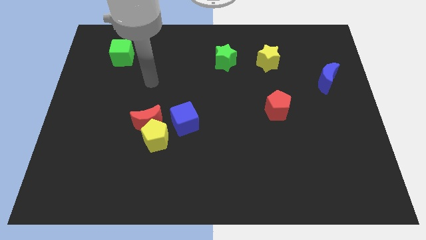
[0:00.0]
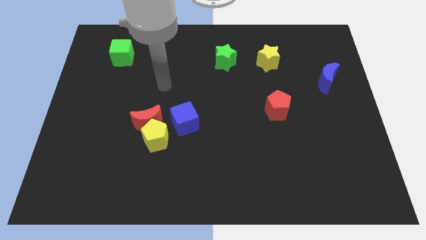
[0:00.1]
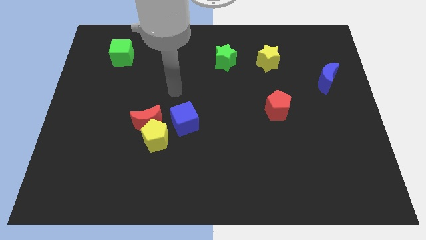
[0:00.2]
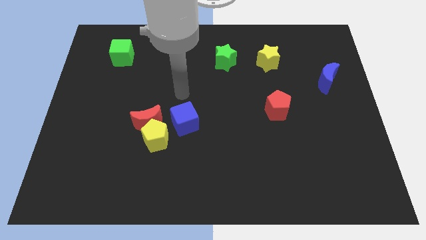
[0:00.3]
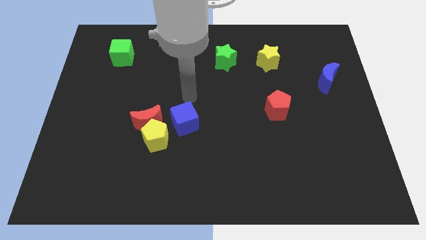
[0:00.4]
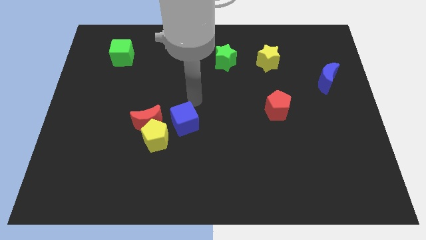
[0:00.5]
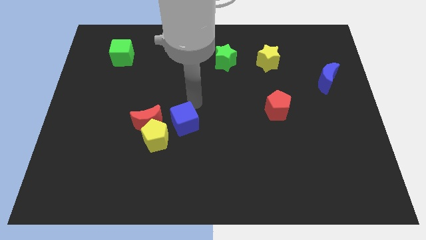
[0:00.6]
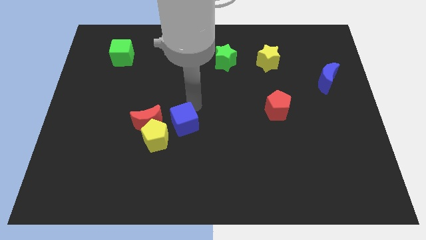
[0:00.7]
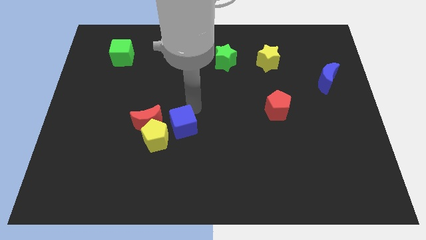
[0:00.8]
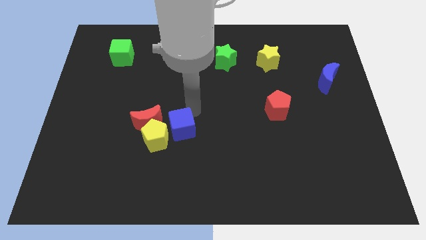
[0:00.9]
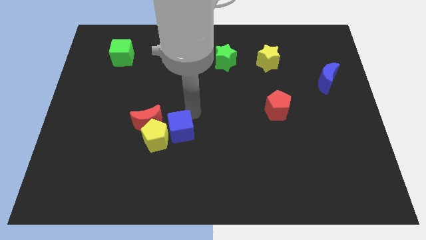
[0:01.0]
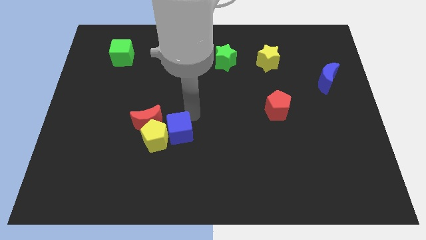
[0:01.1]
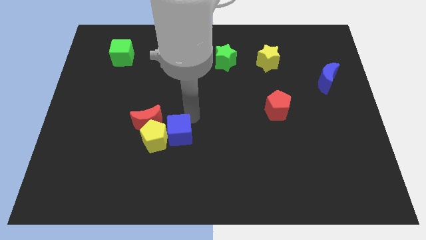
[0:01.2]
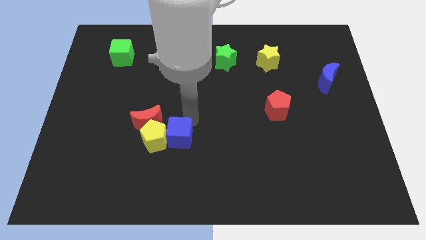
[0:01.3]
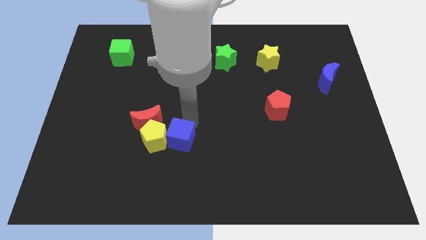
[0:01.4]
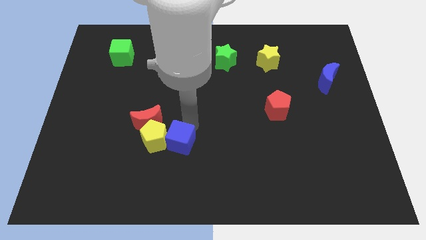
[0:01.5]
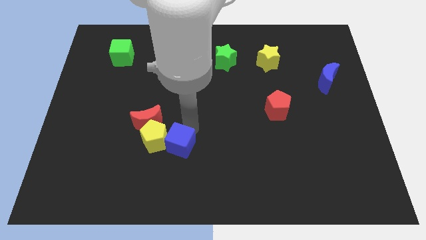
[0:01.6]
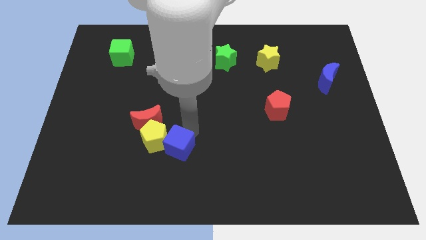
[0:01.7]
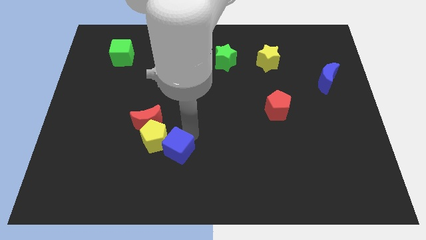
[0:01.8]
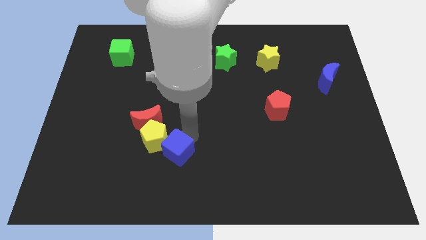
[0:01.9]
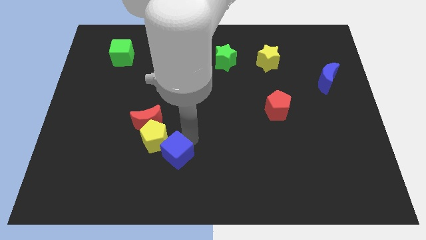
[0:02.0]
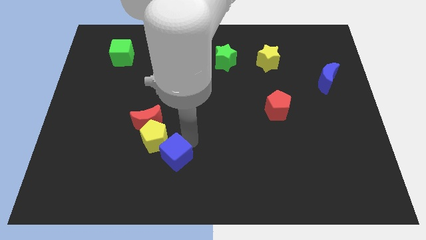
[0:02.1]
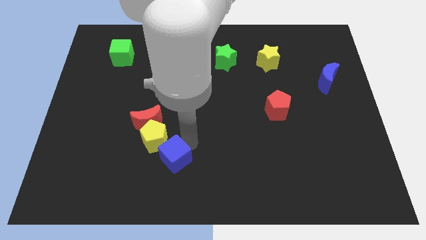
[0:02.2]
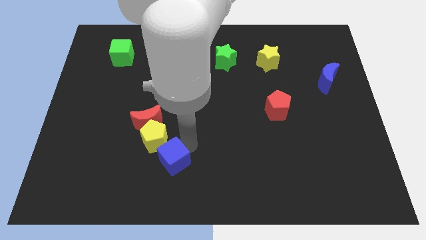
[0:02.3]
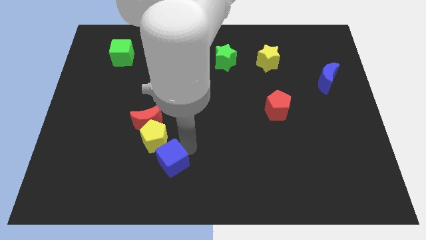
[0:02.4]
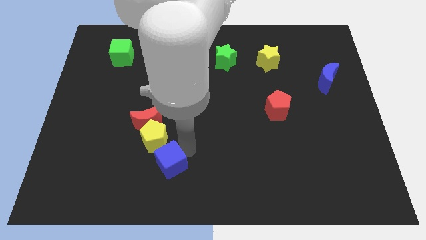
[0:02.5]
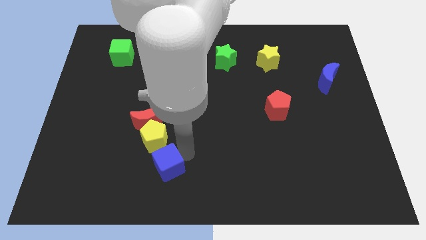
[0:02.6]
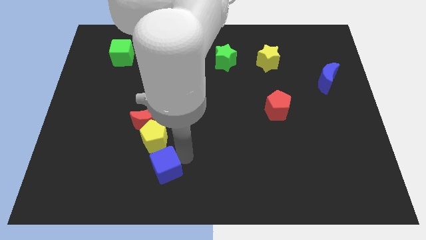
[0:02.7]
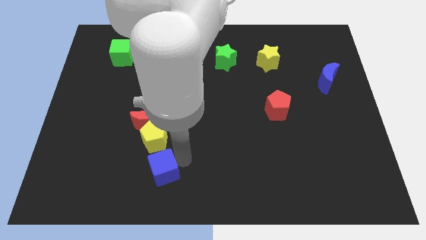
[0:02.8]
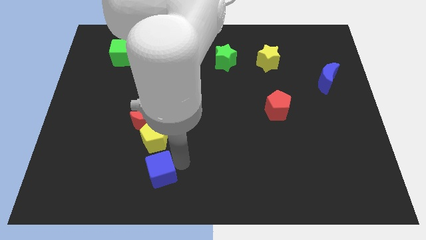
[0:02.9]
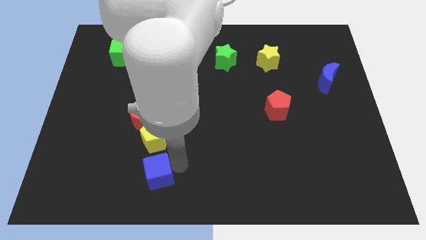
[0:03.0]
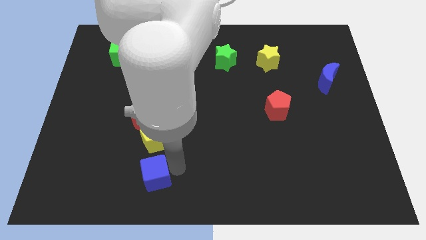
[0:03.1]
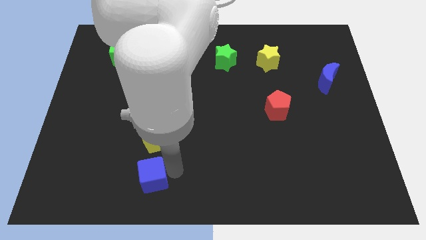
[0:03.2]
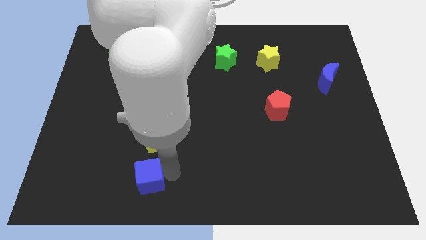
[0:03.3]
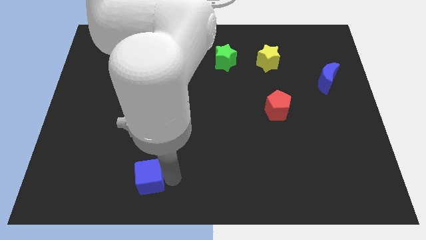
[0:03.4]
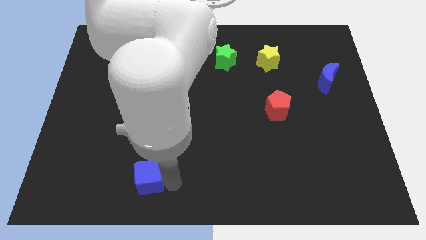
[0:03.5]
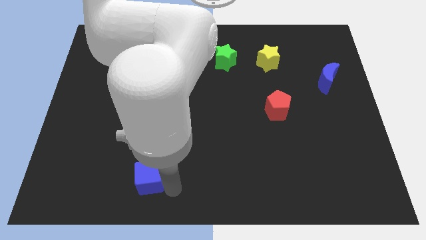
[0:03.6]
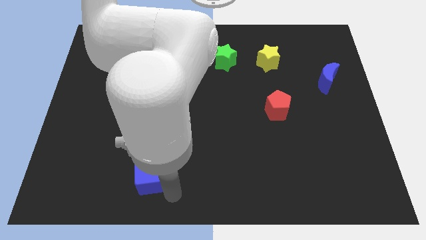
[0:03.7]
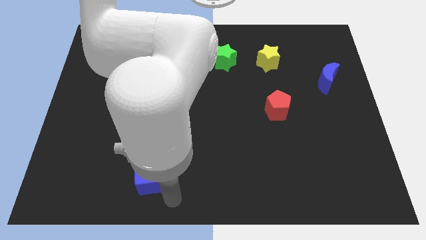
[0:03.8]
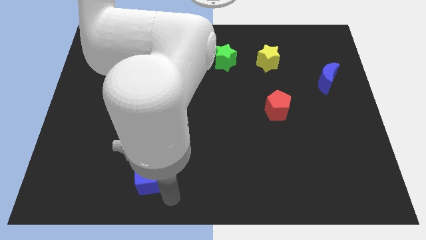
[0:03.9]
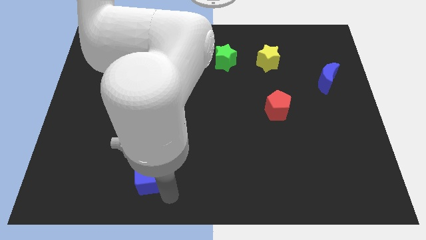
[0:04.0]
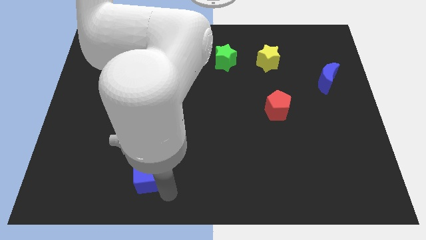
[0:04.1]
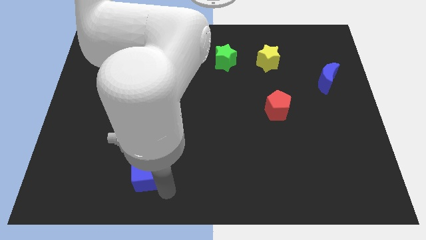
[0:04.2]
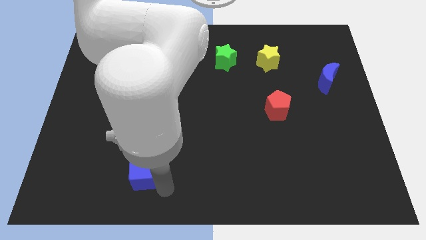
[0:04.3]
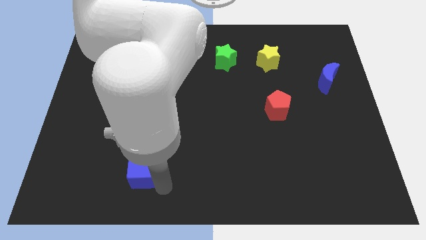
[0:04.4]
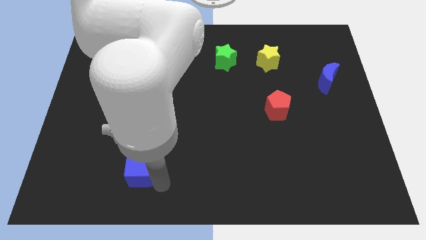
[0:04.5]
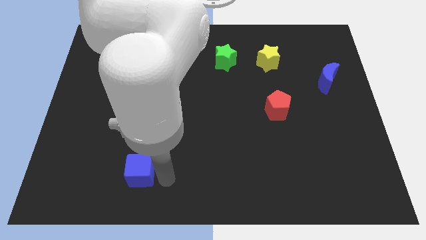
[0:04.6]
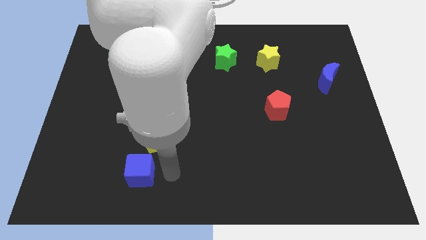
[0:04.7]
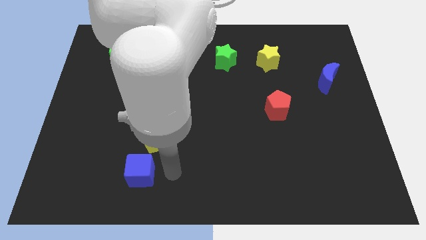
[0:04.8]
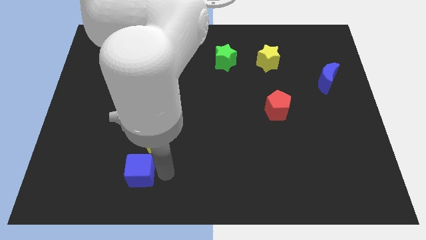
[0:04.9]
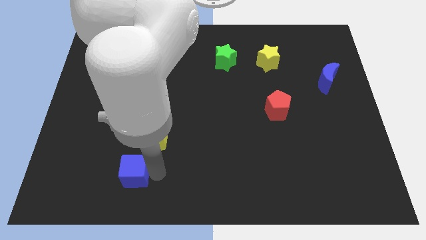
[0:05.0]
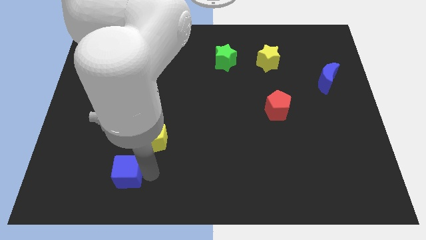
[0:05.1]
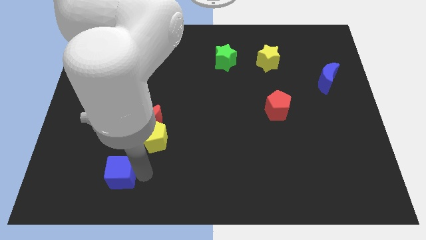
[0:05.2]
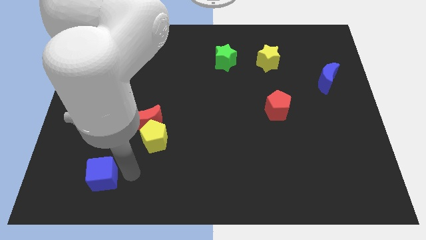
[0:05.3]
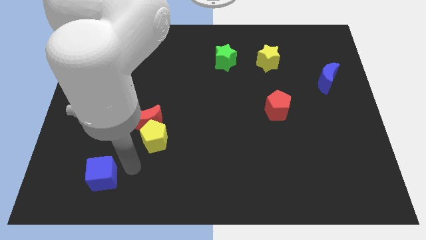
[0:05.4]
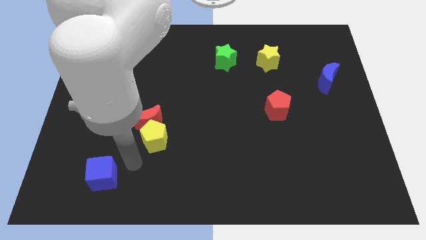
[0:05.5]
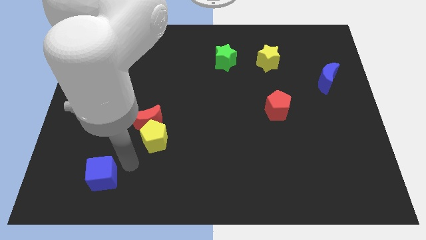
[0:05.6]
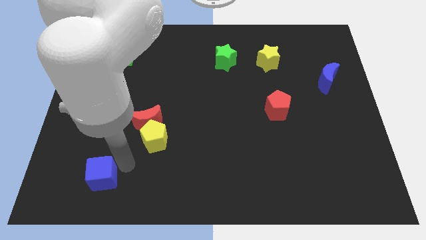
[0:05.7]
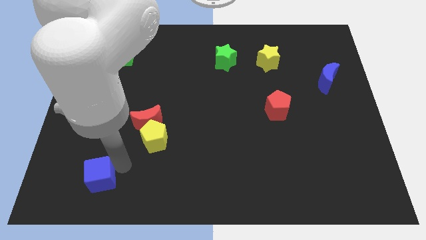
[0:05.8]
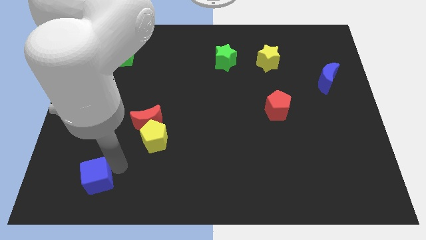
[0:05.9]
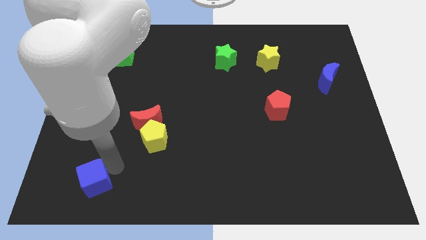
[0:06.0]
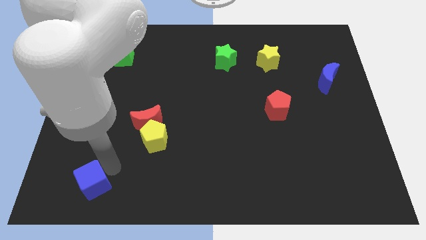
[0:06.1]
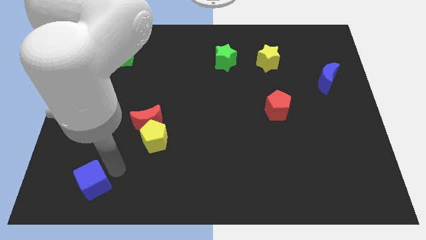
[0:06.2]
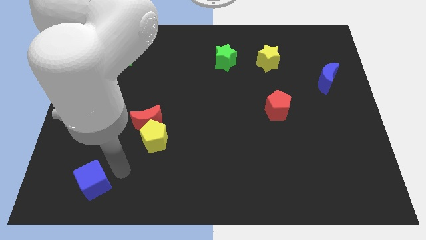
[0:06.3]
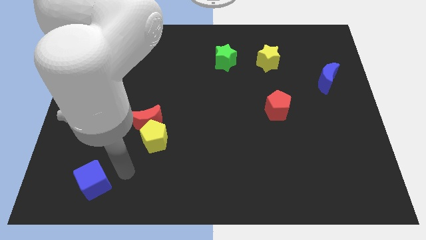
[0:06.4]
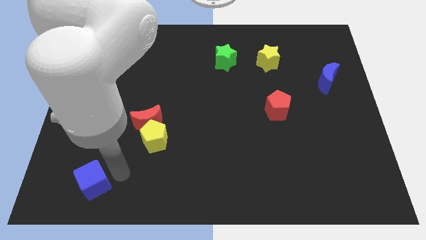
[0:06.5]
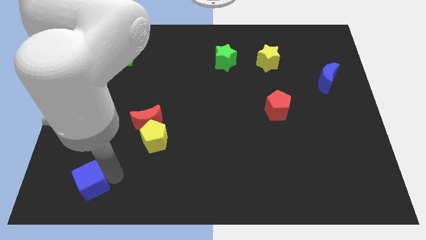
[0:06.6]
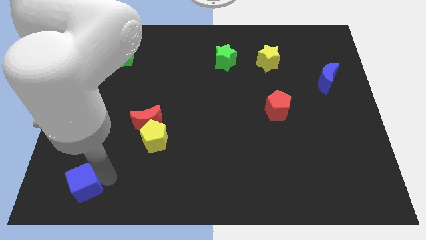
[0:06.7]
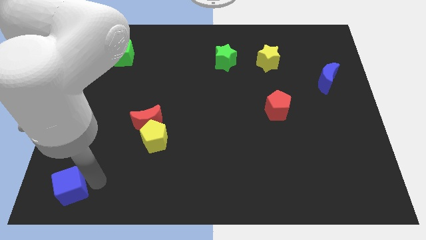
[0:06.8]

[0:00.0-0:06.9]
push the blue cube to the bottom left corner

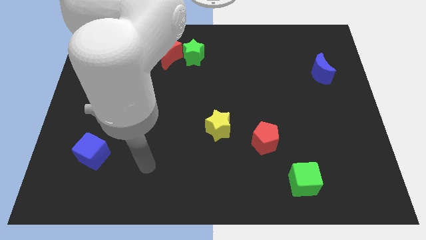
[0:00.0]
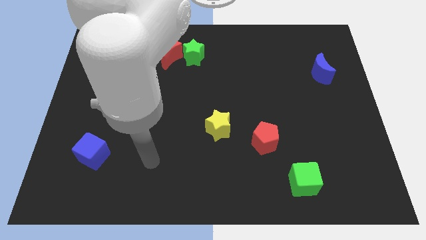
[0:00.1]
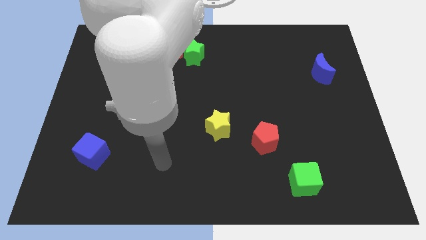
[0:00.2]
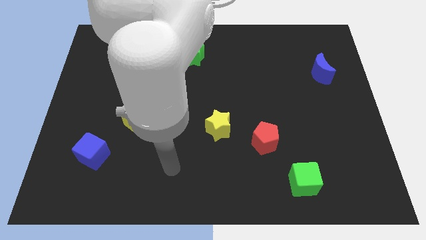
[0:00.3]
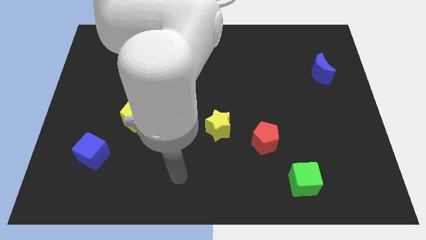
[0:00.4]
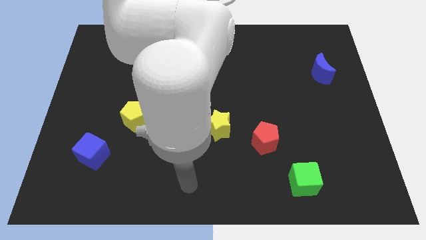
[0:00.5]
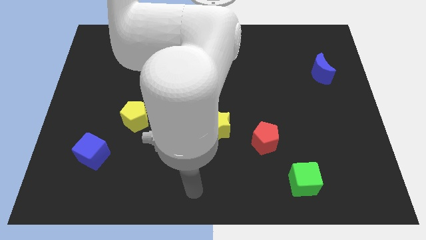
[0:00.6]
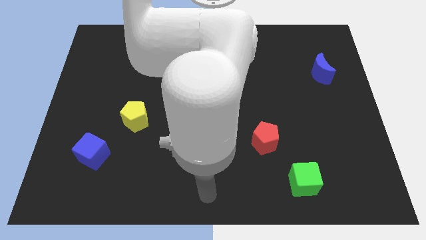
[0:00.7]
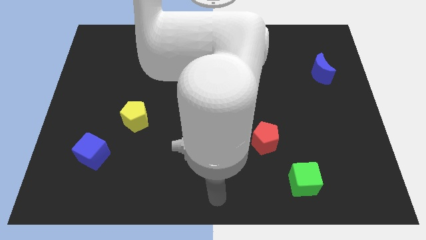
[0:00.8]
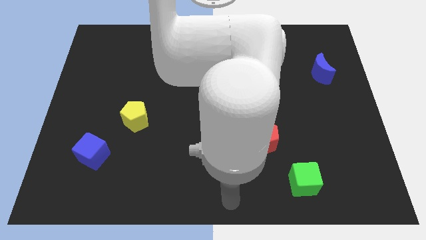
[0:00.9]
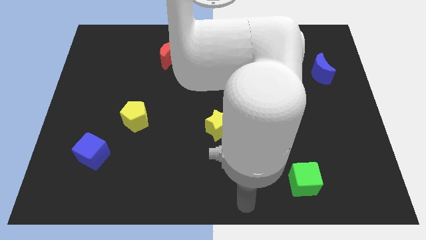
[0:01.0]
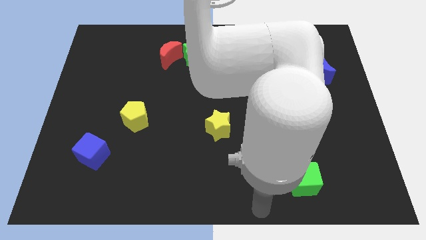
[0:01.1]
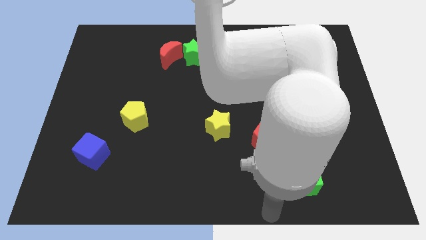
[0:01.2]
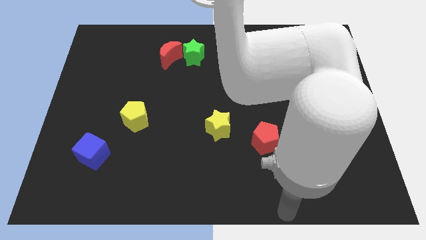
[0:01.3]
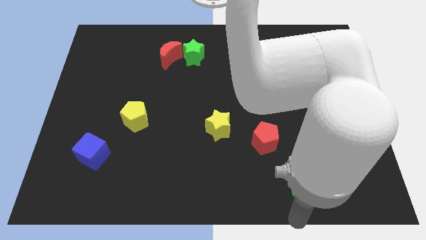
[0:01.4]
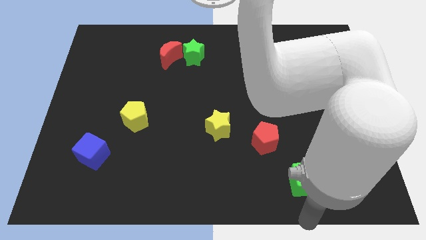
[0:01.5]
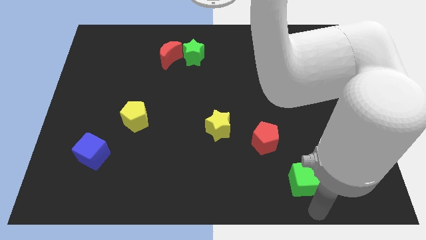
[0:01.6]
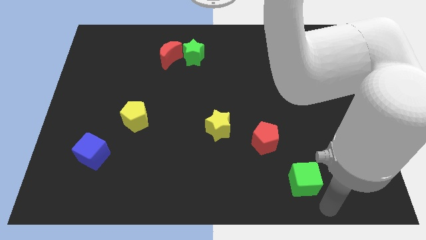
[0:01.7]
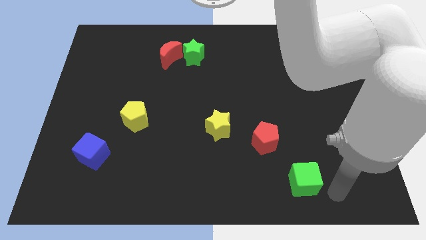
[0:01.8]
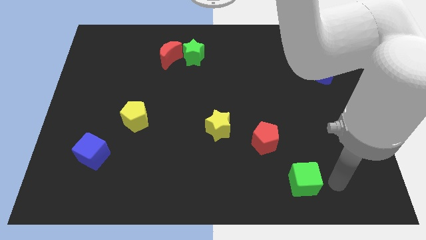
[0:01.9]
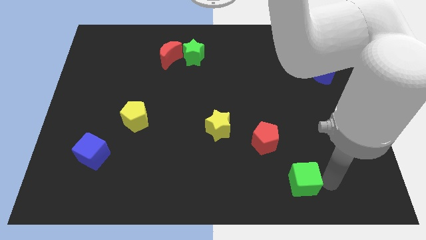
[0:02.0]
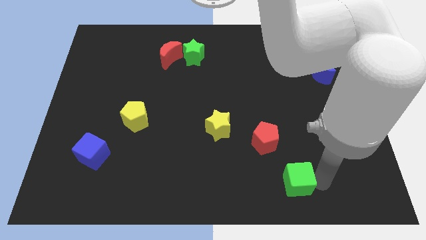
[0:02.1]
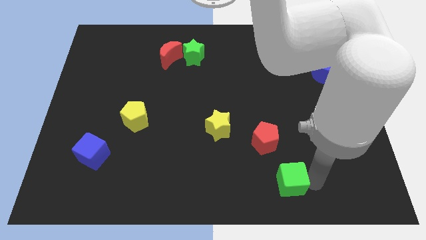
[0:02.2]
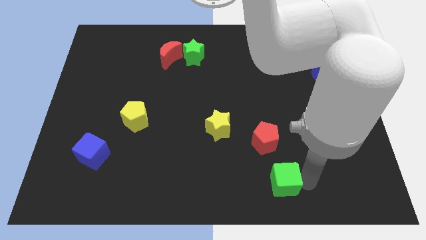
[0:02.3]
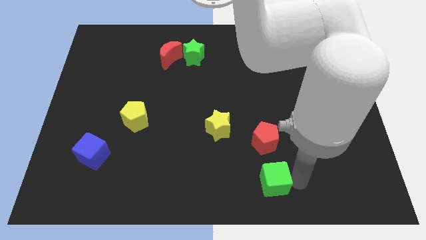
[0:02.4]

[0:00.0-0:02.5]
put the green cube to the bottom
